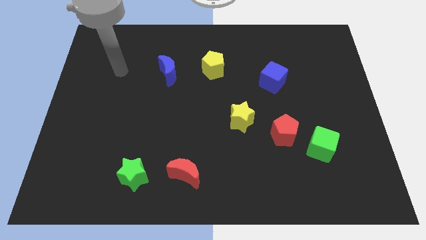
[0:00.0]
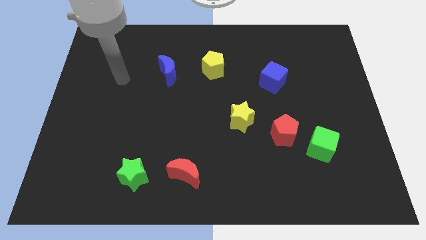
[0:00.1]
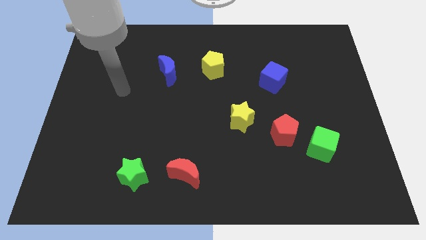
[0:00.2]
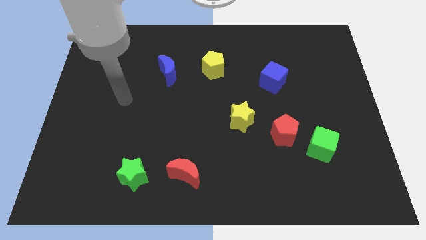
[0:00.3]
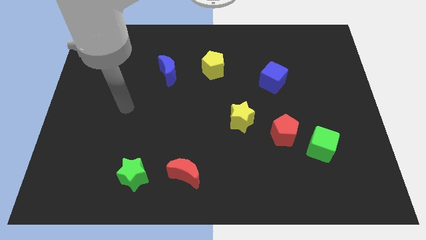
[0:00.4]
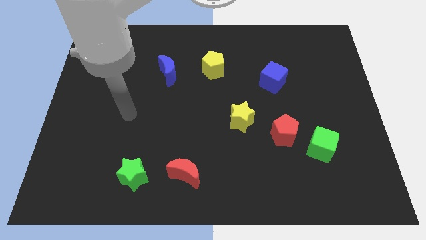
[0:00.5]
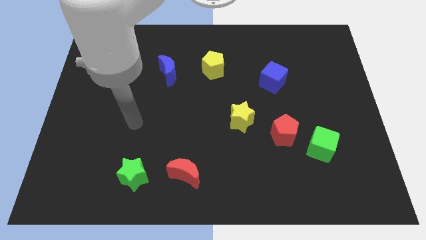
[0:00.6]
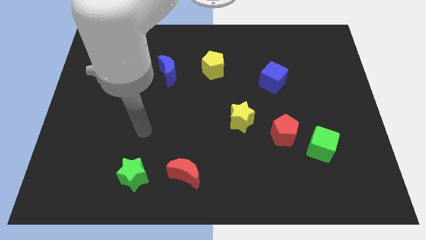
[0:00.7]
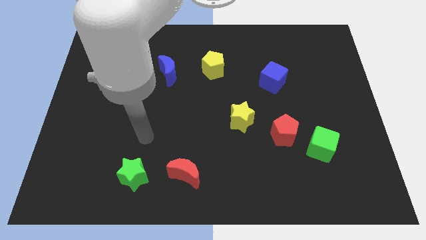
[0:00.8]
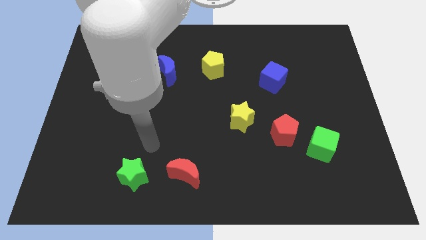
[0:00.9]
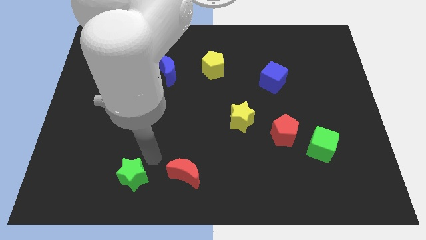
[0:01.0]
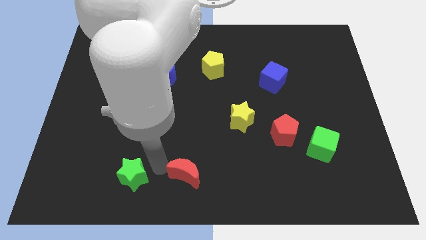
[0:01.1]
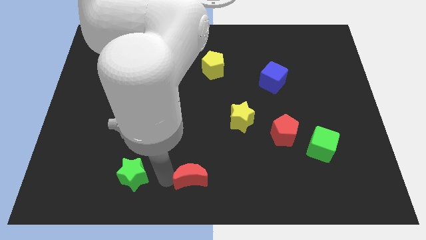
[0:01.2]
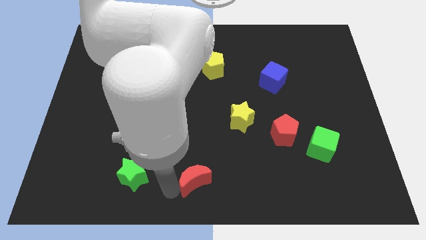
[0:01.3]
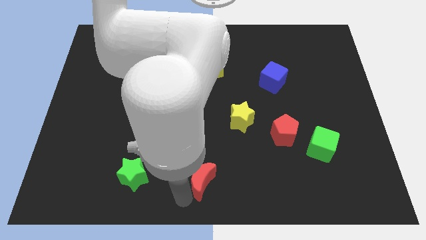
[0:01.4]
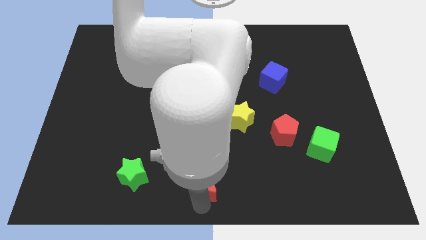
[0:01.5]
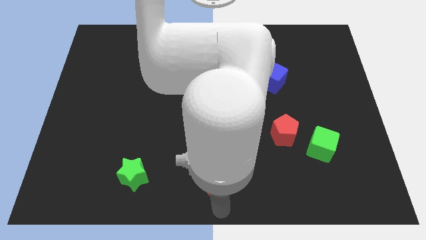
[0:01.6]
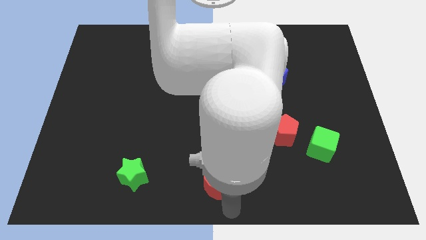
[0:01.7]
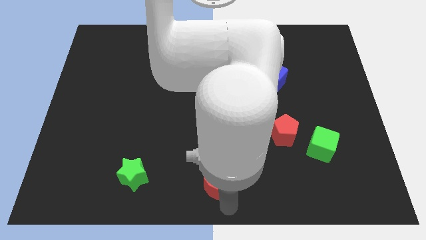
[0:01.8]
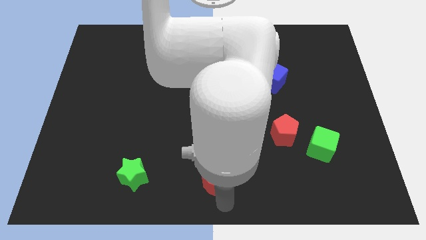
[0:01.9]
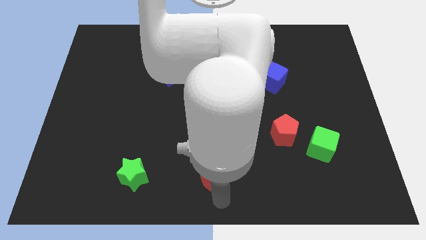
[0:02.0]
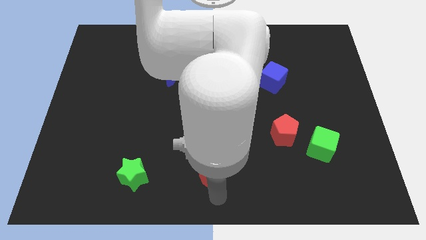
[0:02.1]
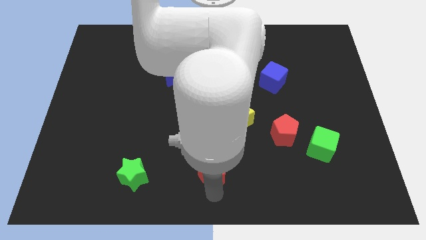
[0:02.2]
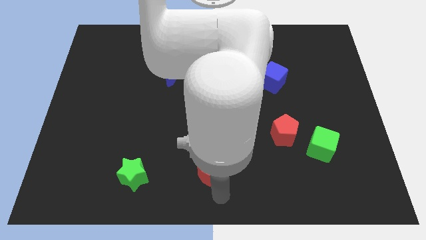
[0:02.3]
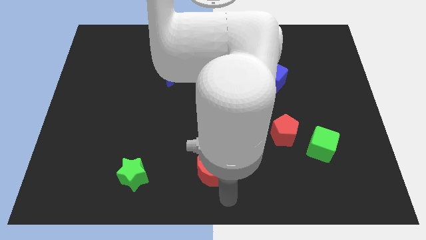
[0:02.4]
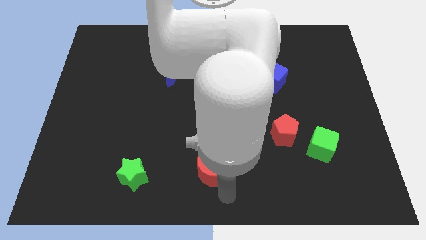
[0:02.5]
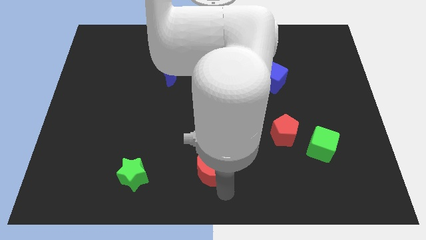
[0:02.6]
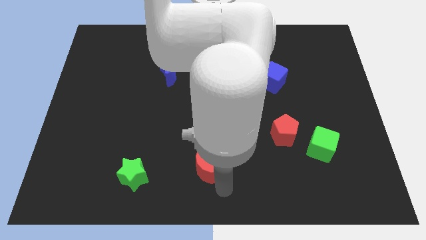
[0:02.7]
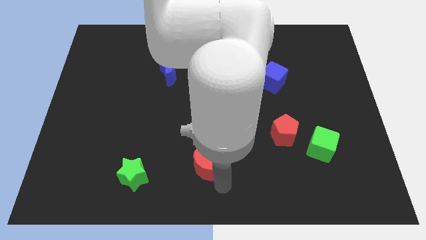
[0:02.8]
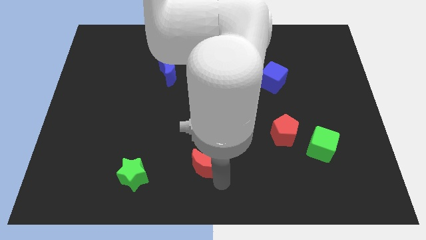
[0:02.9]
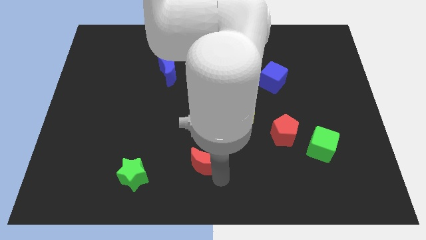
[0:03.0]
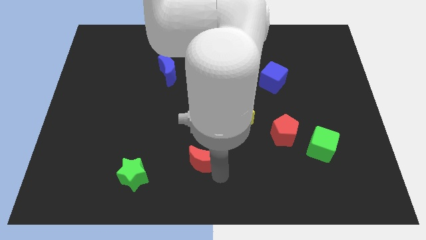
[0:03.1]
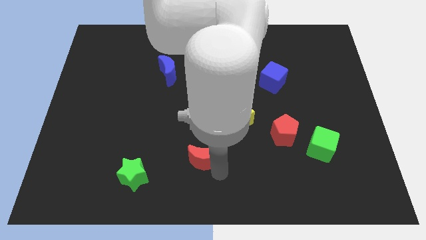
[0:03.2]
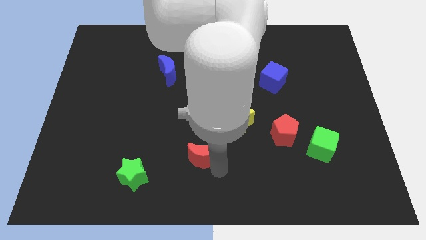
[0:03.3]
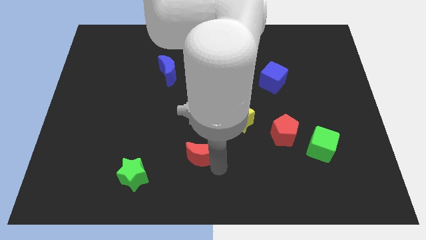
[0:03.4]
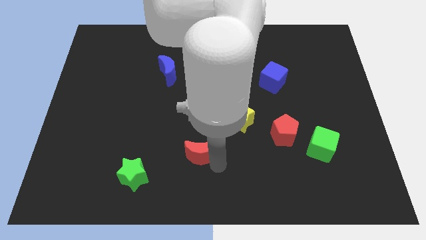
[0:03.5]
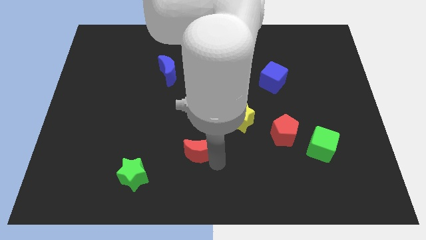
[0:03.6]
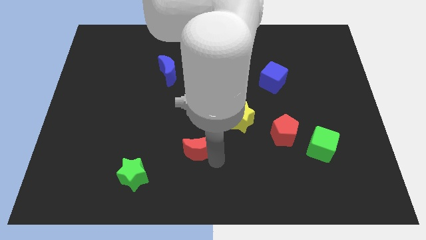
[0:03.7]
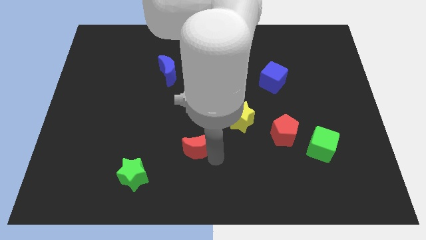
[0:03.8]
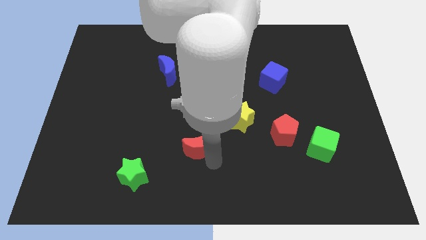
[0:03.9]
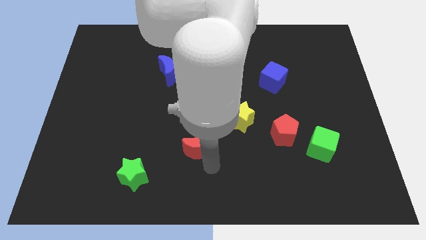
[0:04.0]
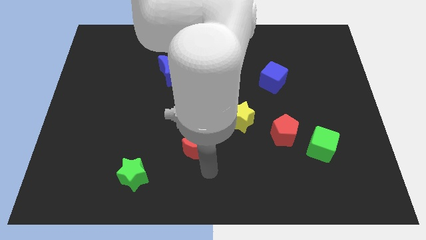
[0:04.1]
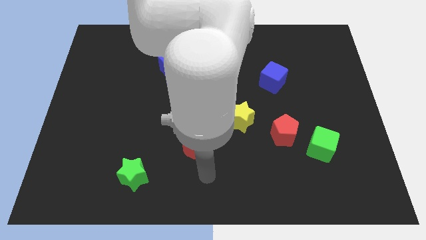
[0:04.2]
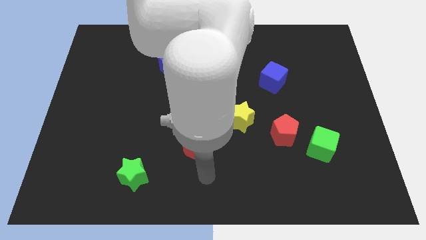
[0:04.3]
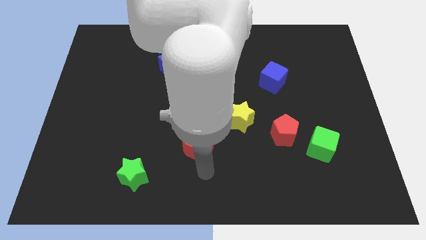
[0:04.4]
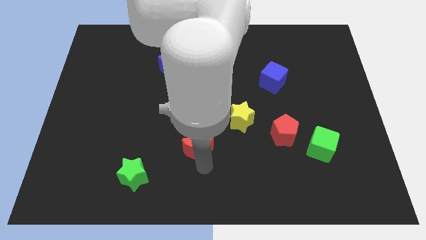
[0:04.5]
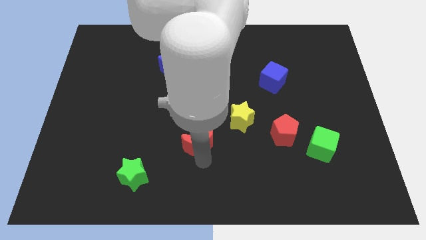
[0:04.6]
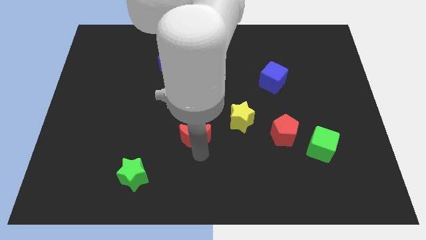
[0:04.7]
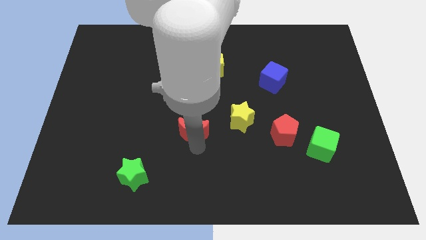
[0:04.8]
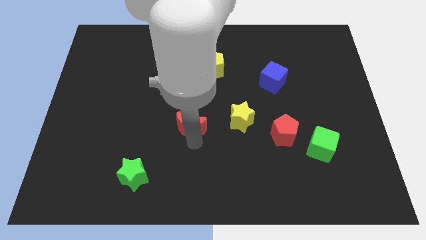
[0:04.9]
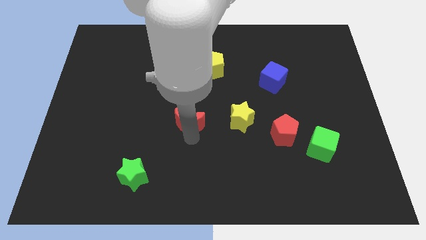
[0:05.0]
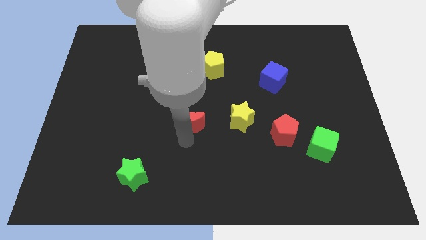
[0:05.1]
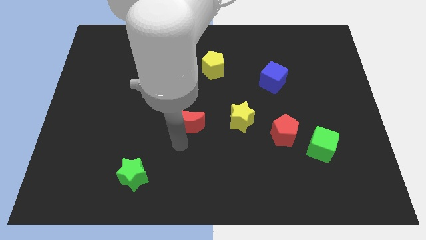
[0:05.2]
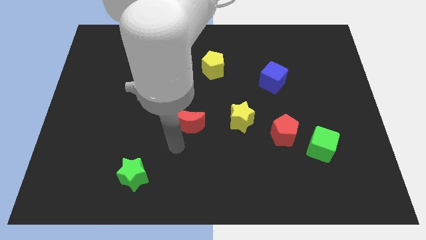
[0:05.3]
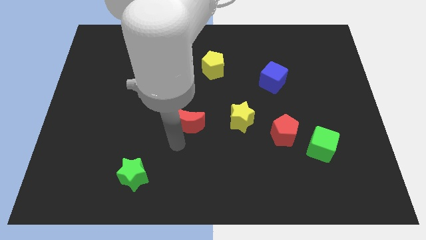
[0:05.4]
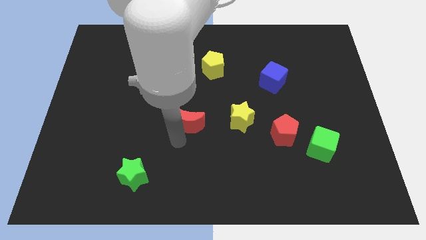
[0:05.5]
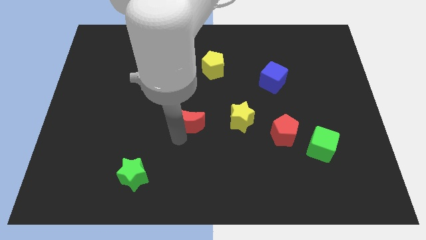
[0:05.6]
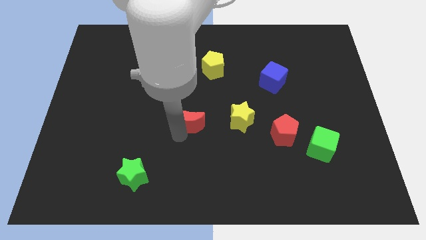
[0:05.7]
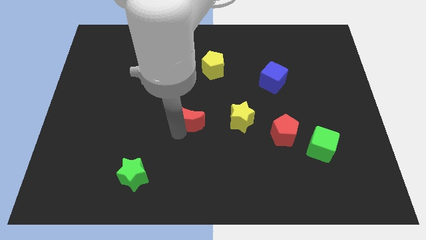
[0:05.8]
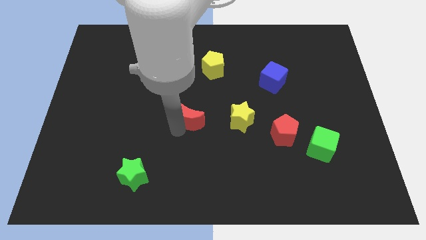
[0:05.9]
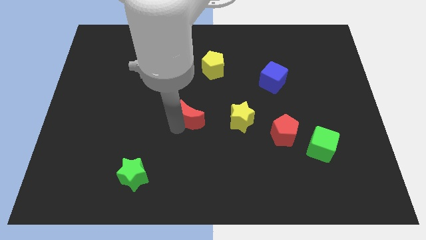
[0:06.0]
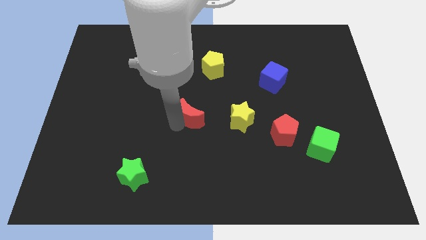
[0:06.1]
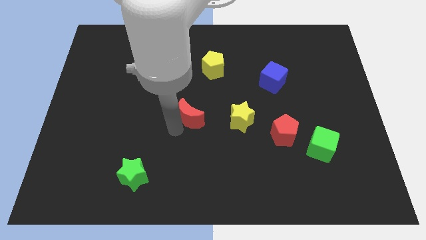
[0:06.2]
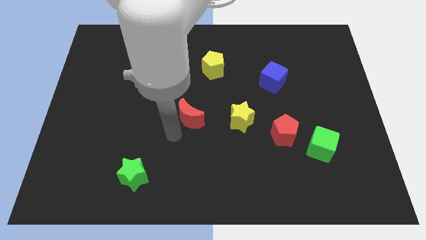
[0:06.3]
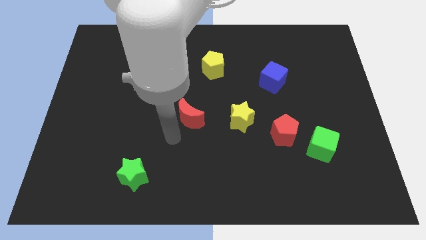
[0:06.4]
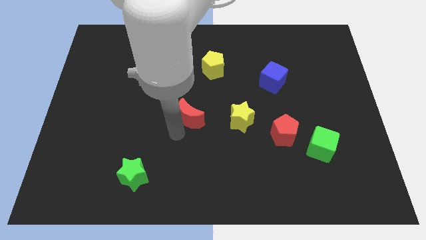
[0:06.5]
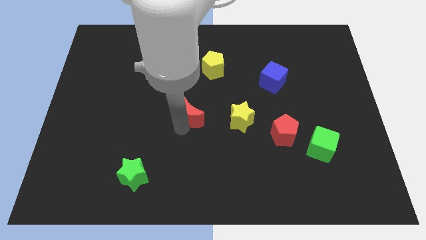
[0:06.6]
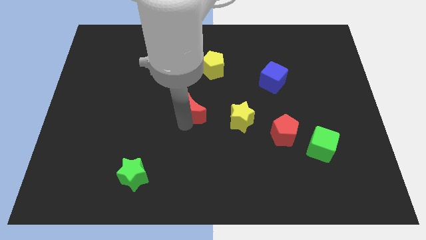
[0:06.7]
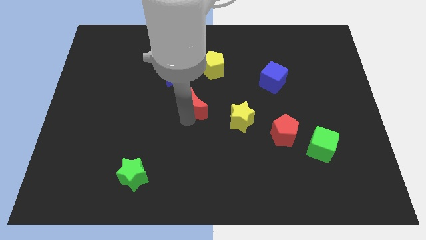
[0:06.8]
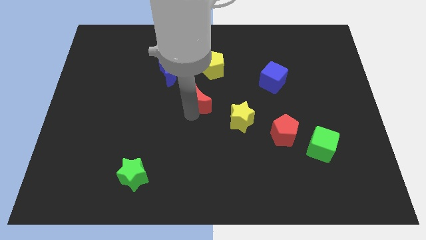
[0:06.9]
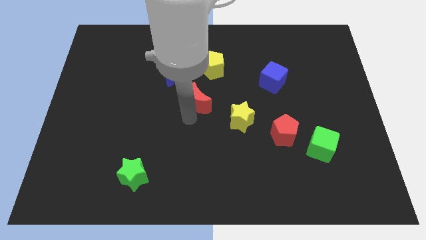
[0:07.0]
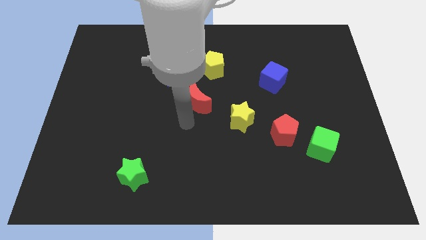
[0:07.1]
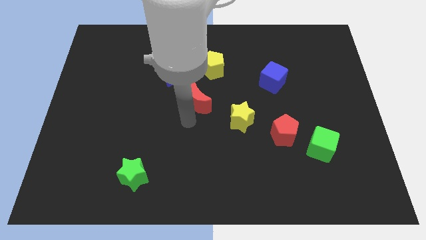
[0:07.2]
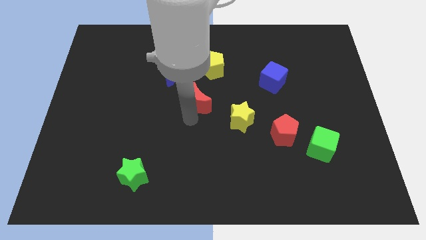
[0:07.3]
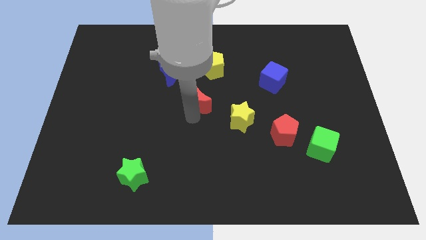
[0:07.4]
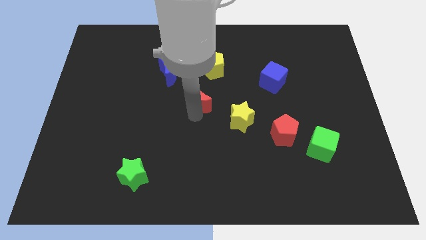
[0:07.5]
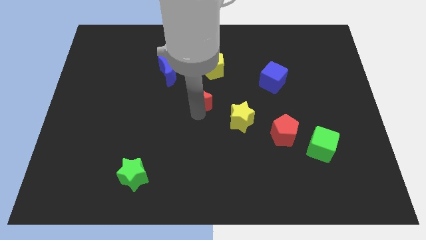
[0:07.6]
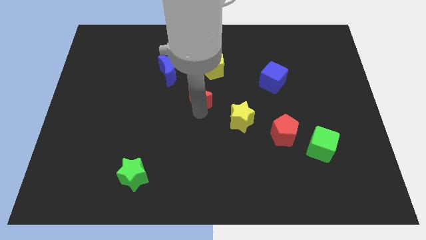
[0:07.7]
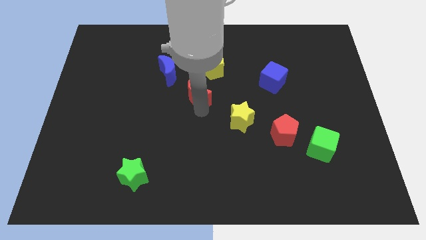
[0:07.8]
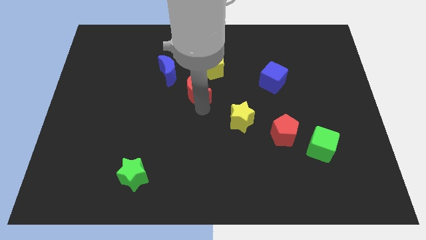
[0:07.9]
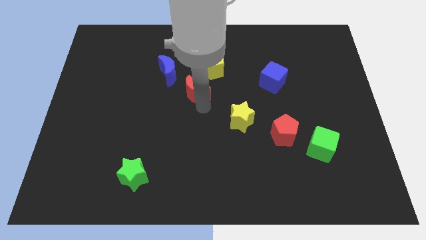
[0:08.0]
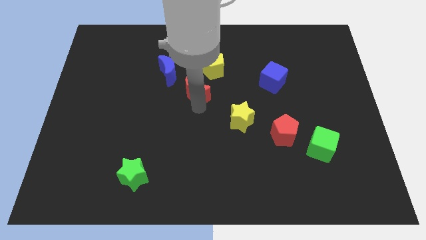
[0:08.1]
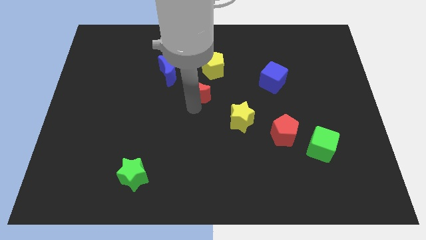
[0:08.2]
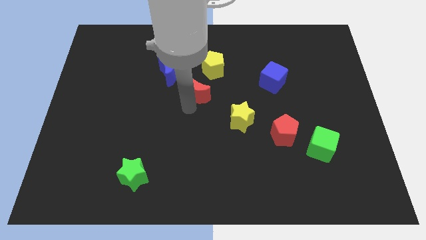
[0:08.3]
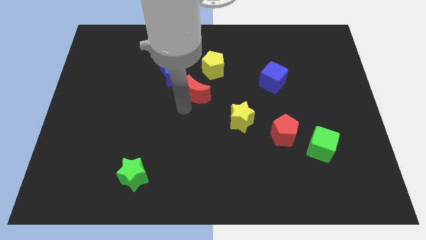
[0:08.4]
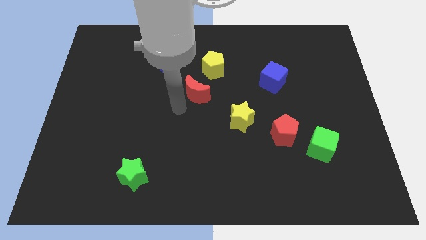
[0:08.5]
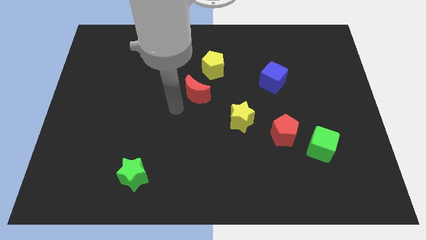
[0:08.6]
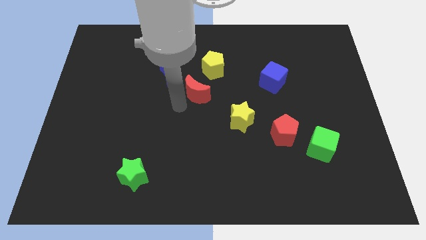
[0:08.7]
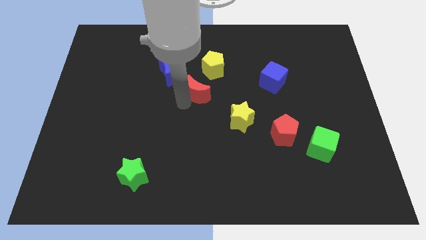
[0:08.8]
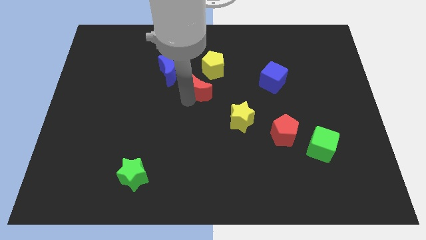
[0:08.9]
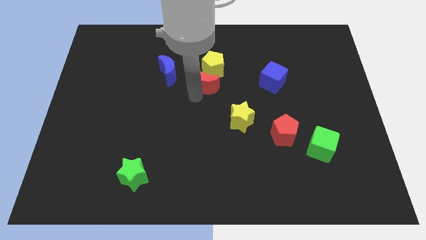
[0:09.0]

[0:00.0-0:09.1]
put the red moon to the yellow pentagon
